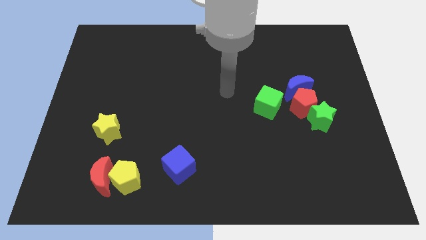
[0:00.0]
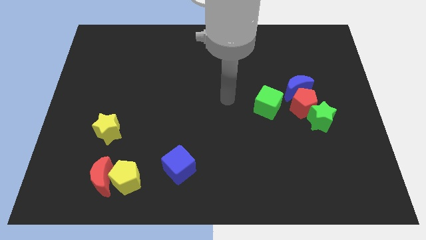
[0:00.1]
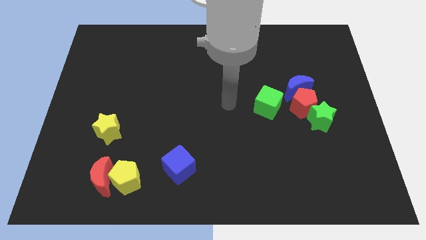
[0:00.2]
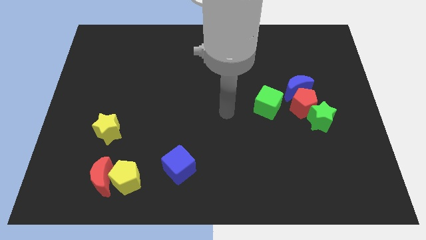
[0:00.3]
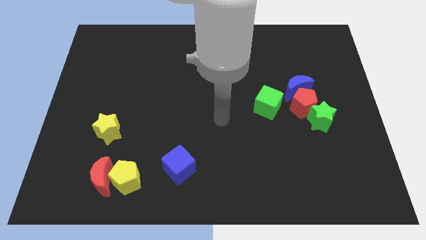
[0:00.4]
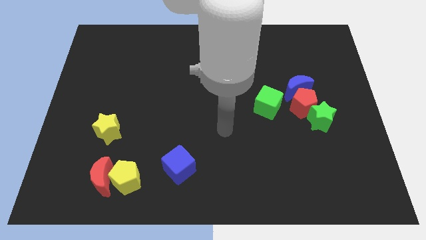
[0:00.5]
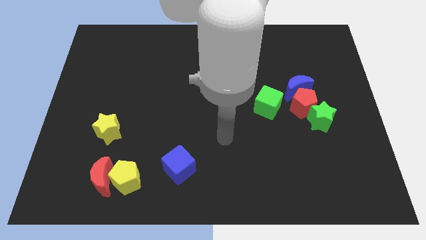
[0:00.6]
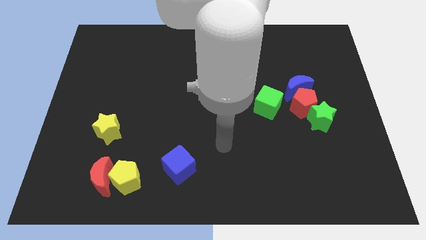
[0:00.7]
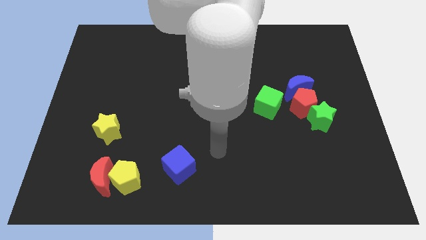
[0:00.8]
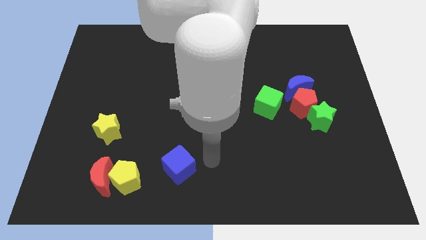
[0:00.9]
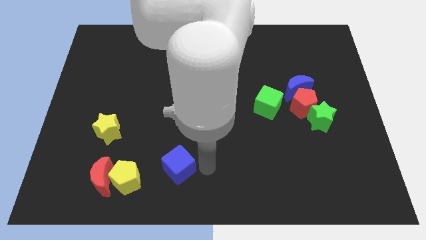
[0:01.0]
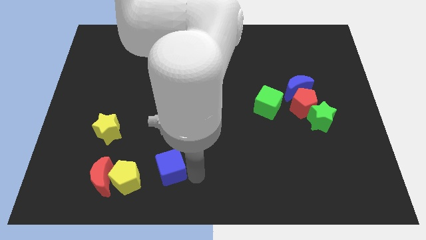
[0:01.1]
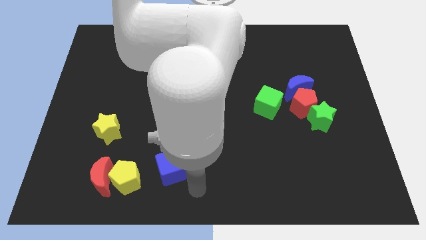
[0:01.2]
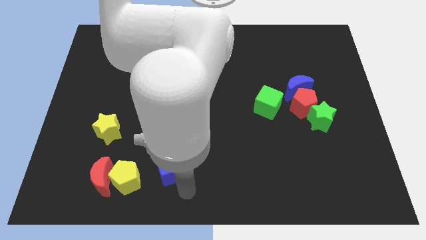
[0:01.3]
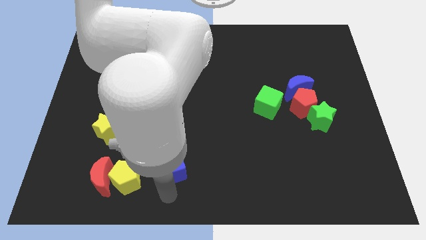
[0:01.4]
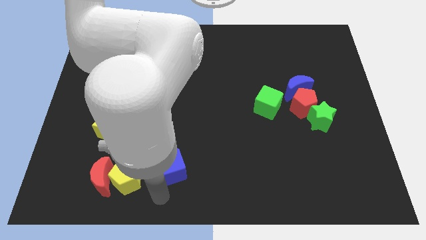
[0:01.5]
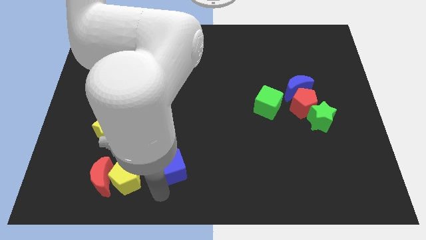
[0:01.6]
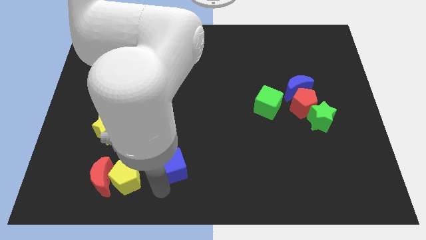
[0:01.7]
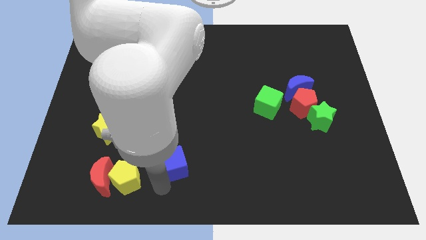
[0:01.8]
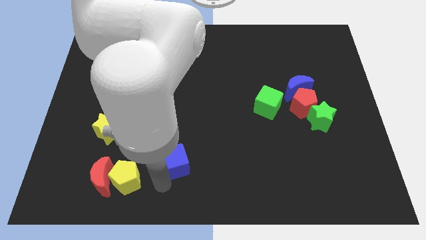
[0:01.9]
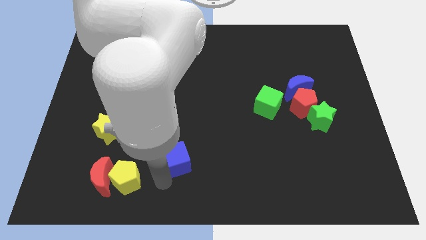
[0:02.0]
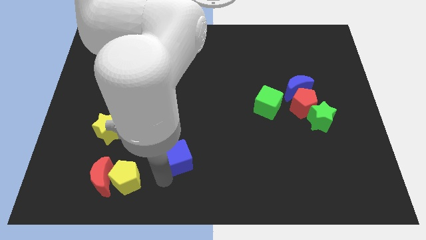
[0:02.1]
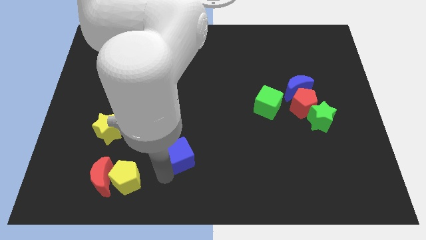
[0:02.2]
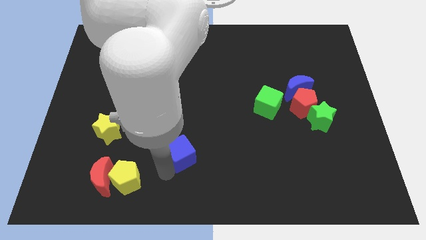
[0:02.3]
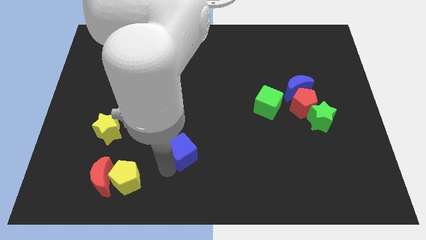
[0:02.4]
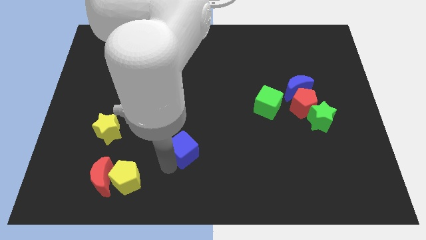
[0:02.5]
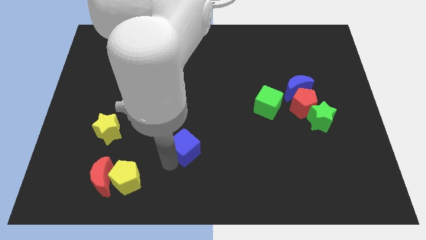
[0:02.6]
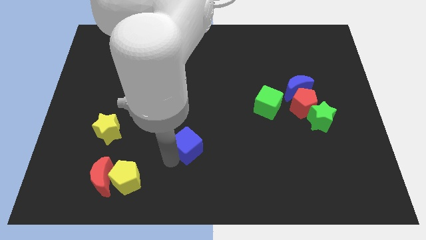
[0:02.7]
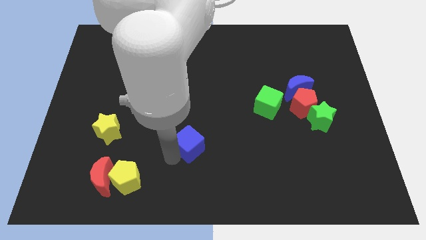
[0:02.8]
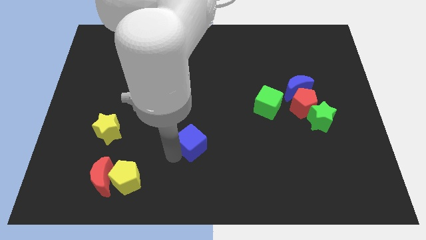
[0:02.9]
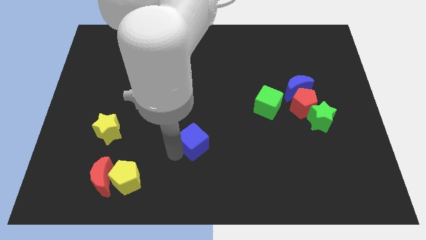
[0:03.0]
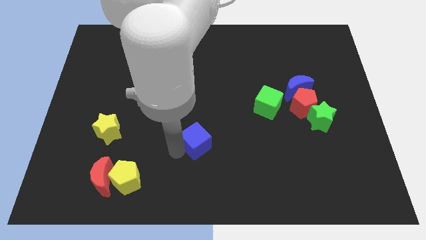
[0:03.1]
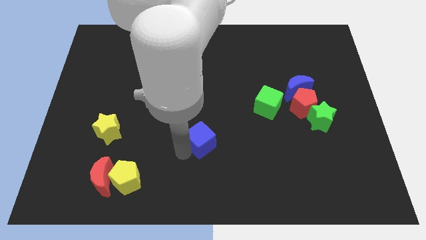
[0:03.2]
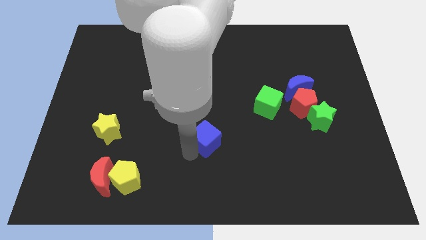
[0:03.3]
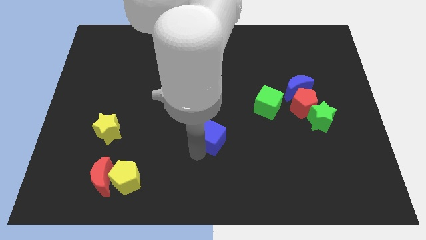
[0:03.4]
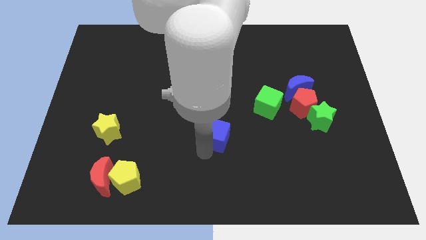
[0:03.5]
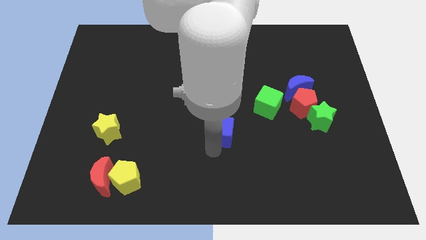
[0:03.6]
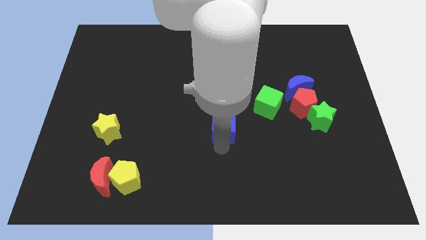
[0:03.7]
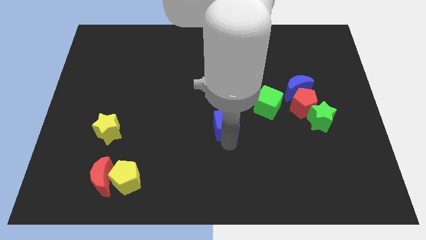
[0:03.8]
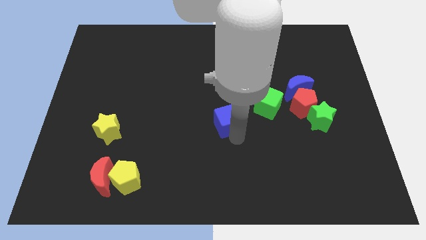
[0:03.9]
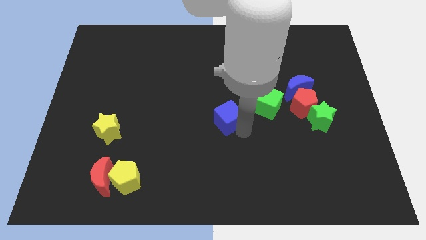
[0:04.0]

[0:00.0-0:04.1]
move the blue cube slightly upwards

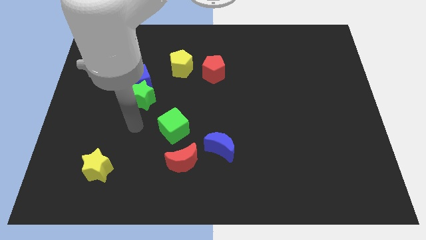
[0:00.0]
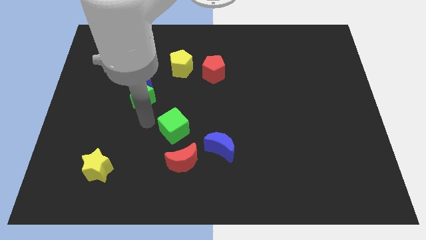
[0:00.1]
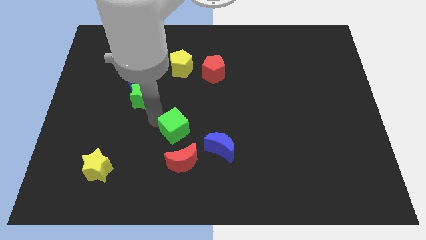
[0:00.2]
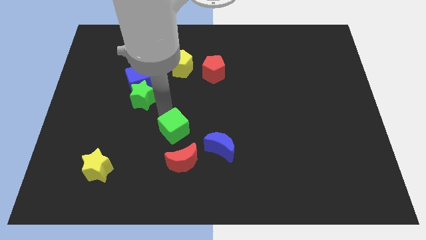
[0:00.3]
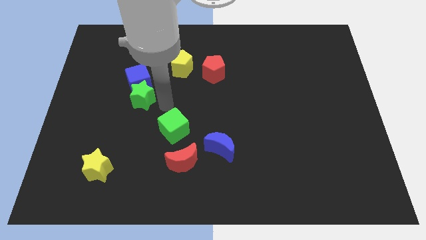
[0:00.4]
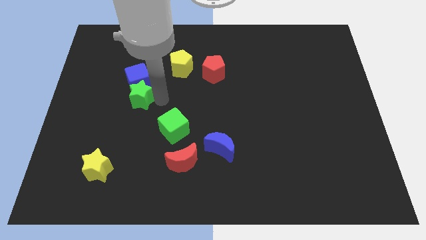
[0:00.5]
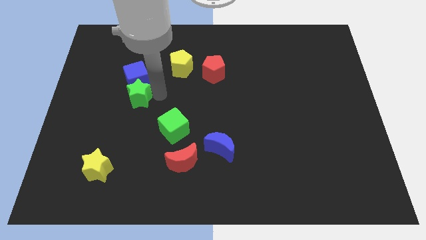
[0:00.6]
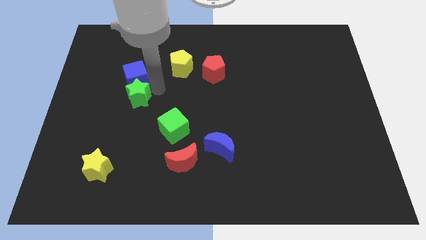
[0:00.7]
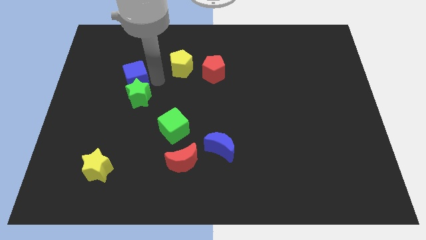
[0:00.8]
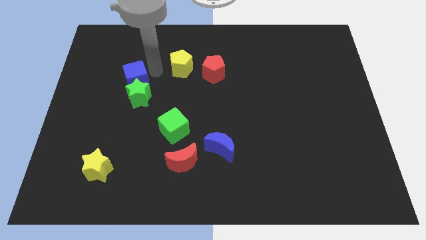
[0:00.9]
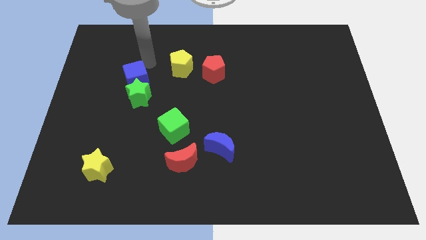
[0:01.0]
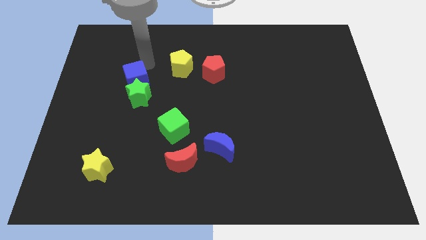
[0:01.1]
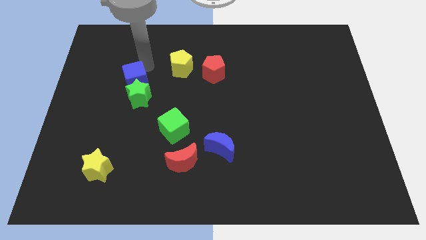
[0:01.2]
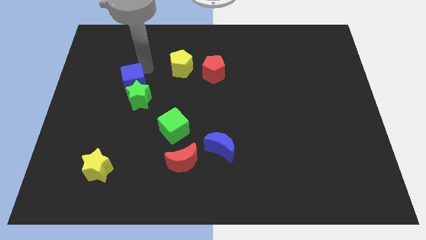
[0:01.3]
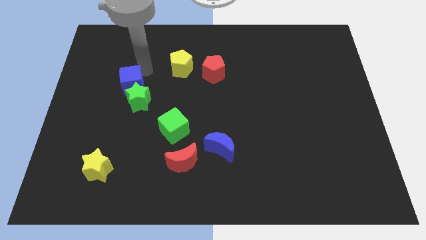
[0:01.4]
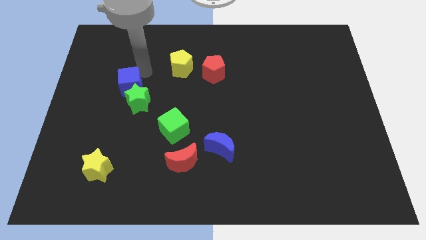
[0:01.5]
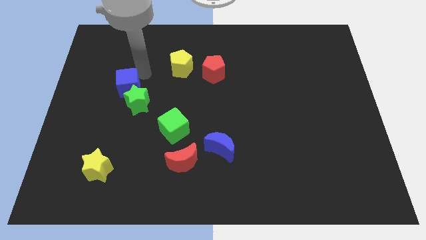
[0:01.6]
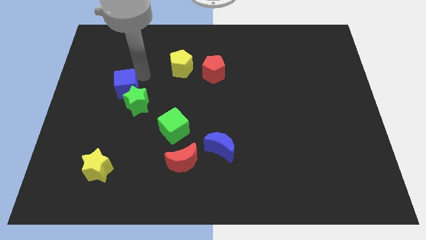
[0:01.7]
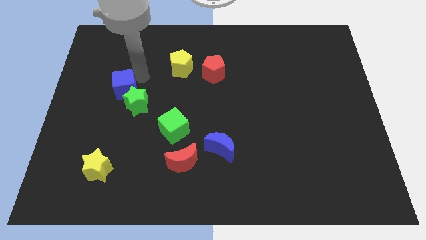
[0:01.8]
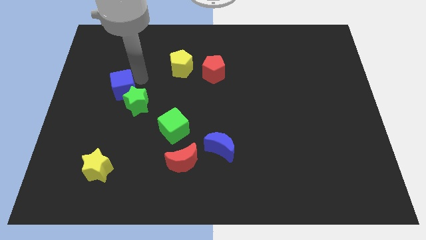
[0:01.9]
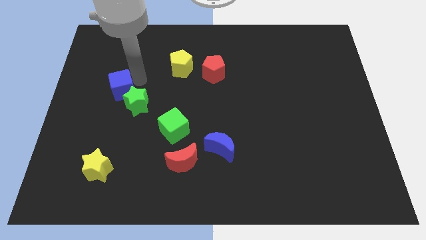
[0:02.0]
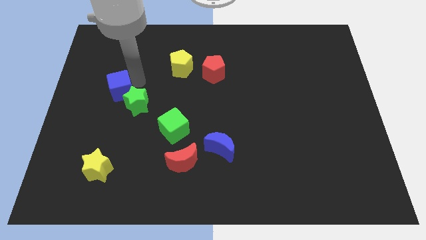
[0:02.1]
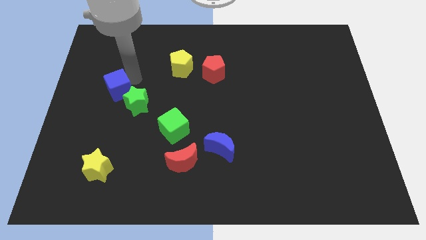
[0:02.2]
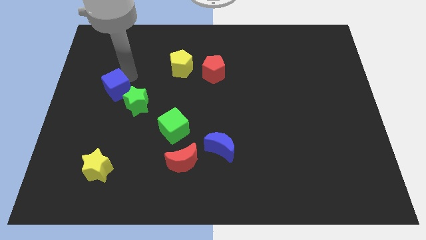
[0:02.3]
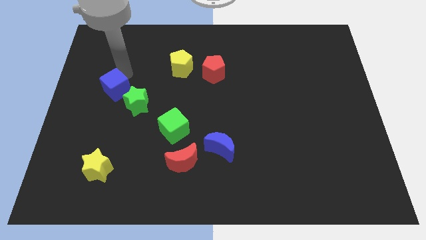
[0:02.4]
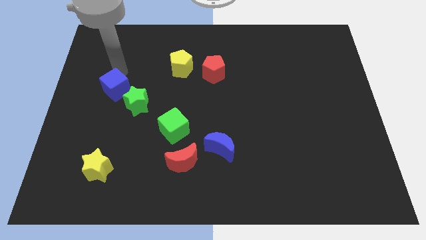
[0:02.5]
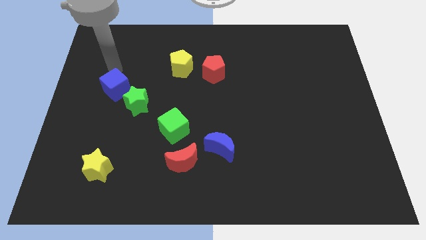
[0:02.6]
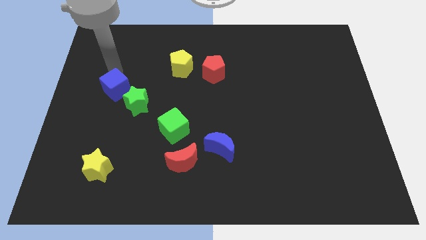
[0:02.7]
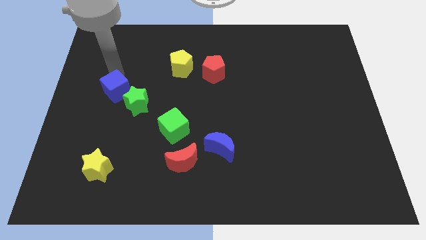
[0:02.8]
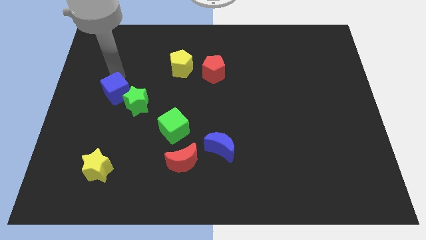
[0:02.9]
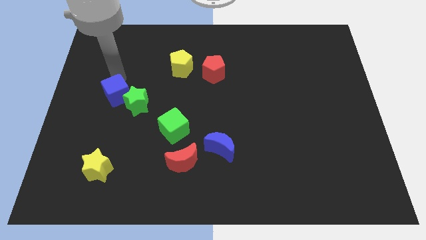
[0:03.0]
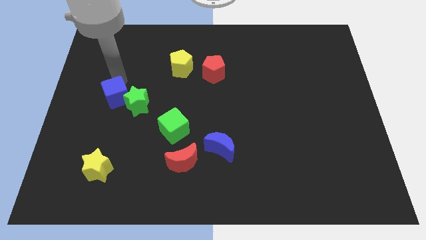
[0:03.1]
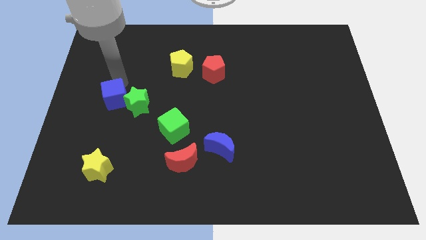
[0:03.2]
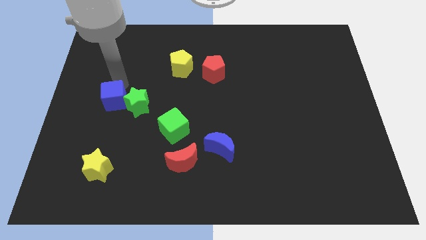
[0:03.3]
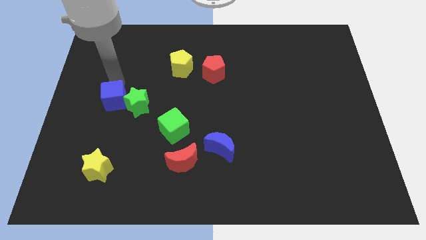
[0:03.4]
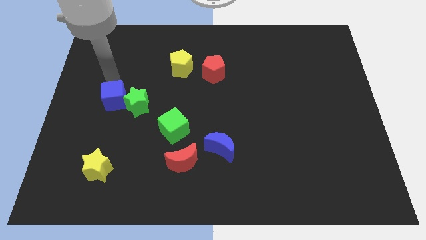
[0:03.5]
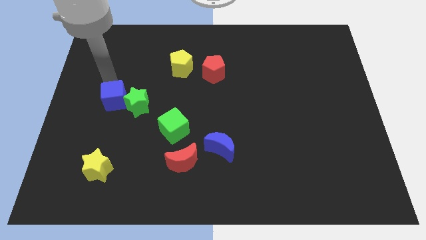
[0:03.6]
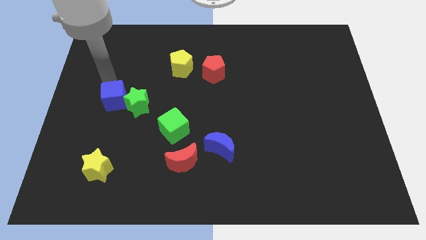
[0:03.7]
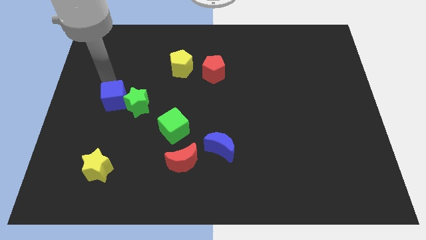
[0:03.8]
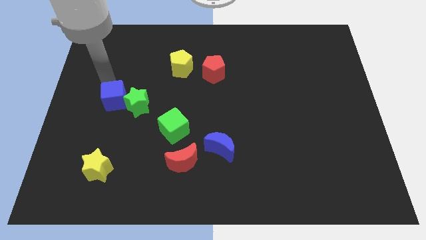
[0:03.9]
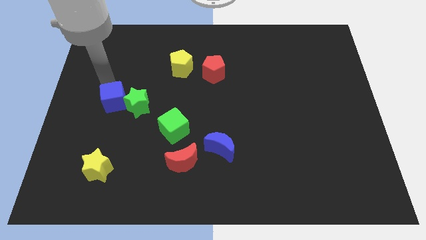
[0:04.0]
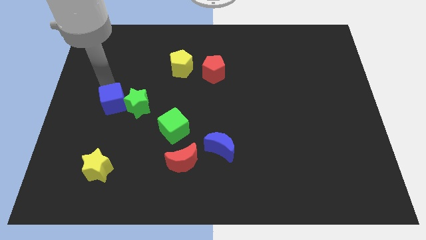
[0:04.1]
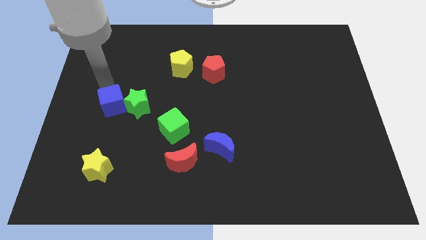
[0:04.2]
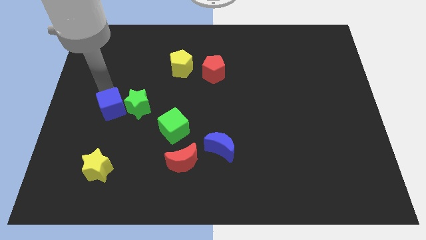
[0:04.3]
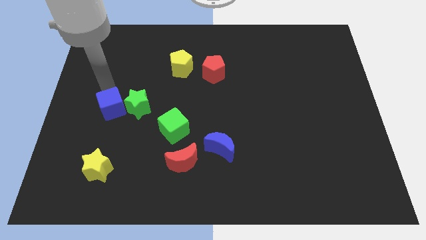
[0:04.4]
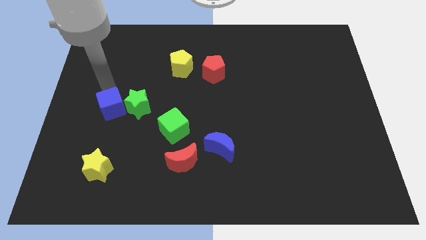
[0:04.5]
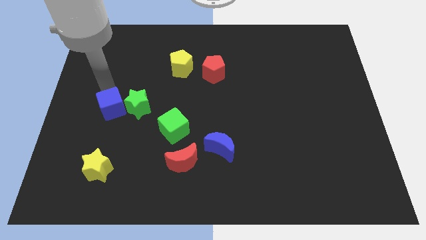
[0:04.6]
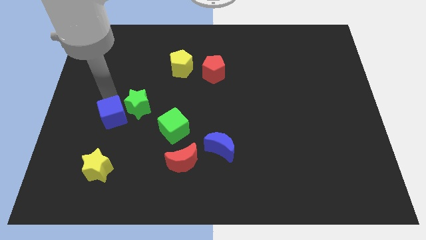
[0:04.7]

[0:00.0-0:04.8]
slightly slide the blue cube down
